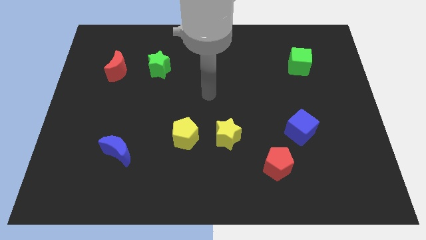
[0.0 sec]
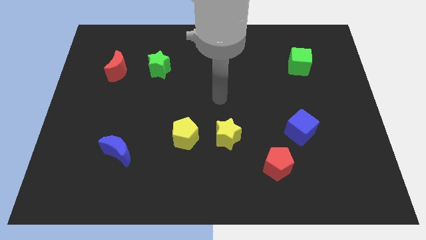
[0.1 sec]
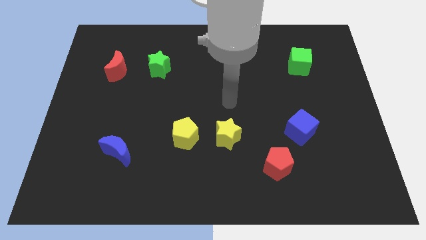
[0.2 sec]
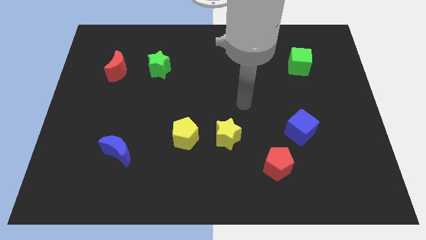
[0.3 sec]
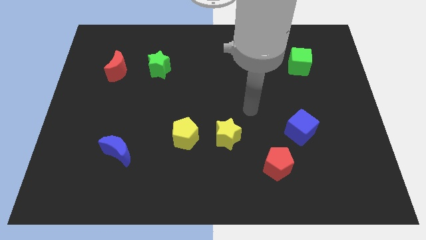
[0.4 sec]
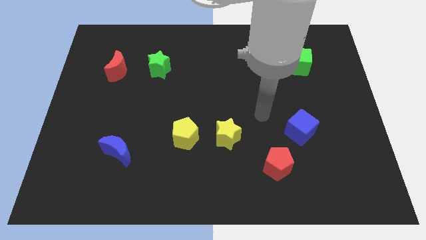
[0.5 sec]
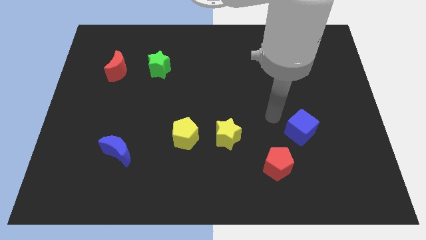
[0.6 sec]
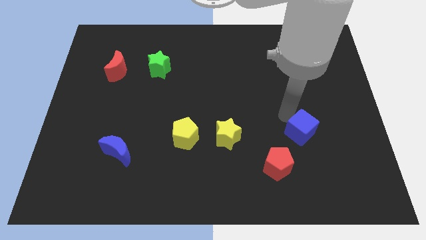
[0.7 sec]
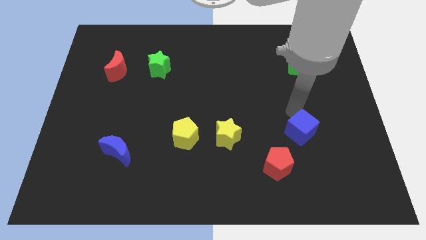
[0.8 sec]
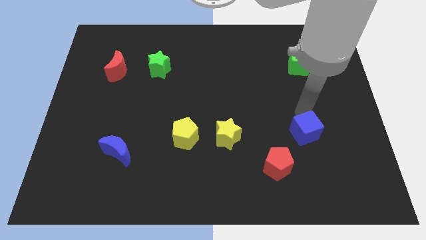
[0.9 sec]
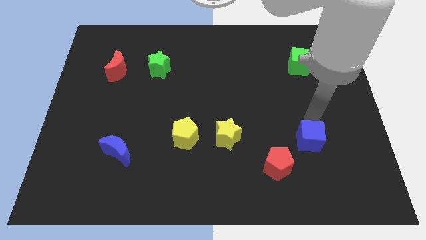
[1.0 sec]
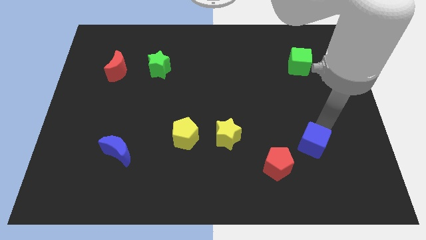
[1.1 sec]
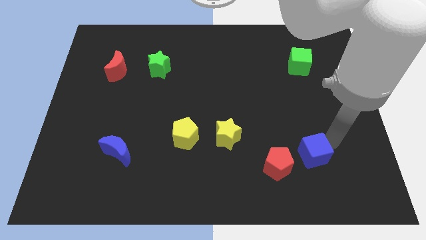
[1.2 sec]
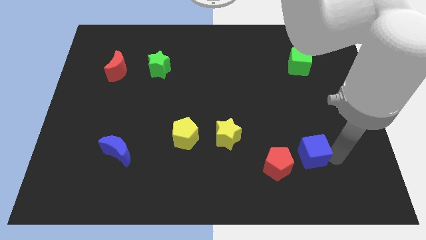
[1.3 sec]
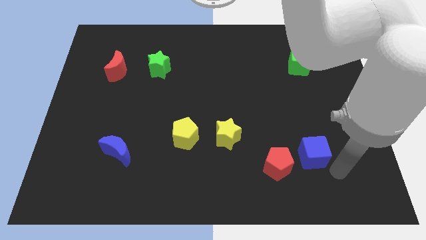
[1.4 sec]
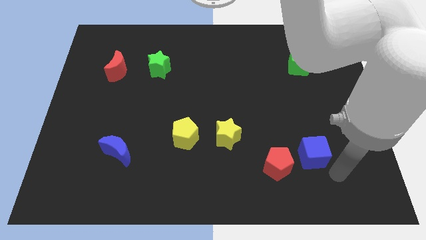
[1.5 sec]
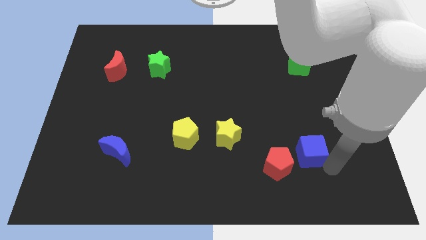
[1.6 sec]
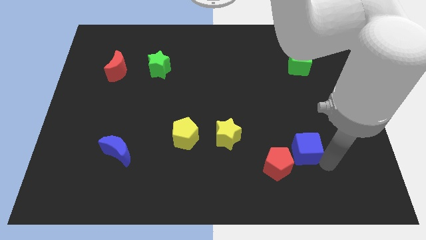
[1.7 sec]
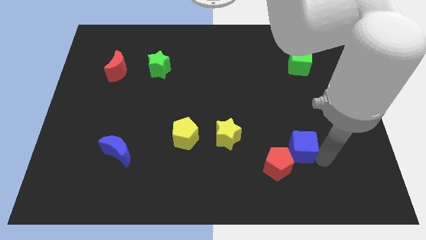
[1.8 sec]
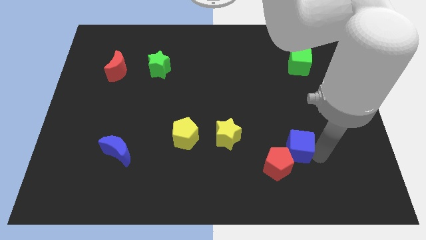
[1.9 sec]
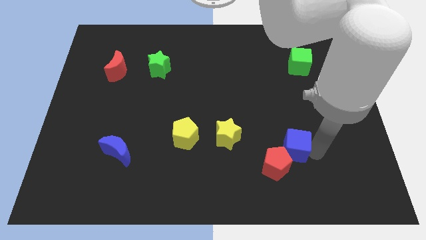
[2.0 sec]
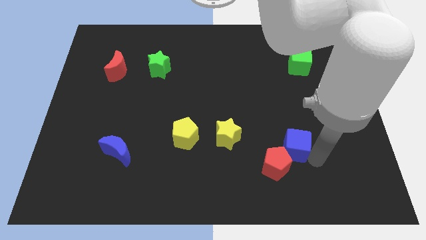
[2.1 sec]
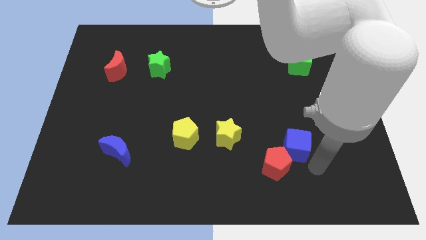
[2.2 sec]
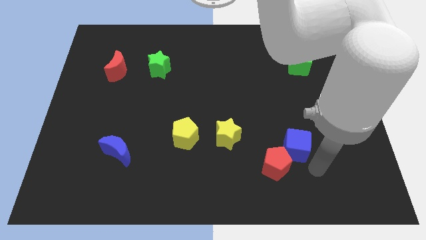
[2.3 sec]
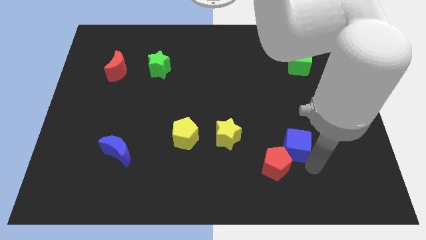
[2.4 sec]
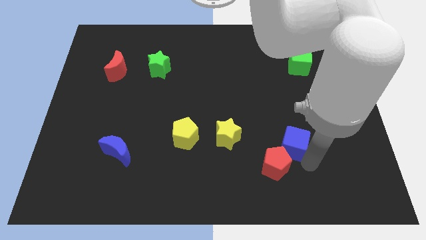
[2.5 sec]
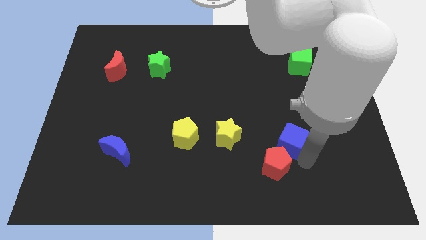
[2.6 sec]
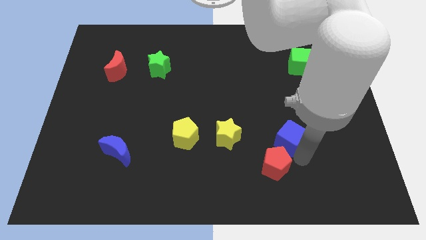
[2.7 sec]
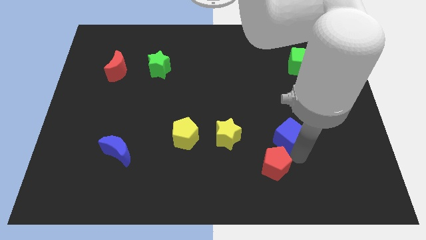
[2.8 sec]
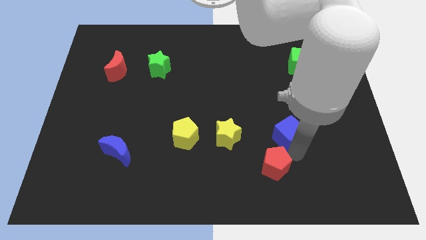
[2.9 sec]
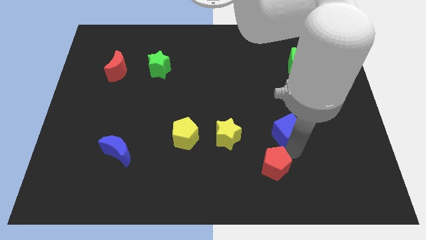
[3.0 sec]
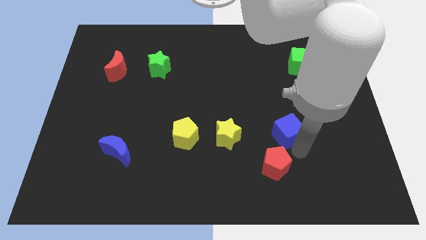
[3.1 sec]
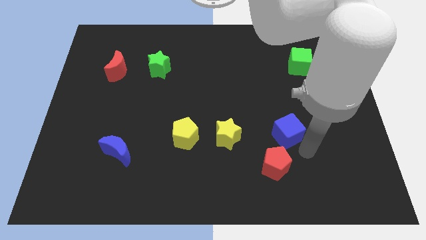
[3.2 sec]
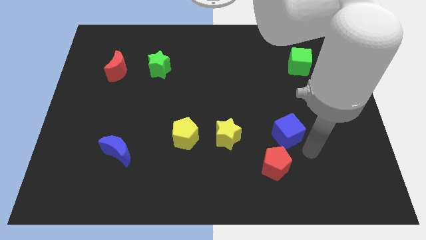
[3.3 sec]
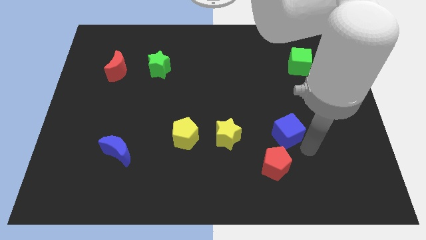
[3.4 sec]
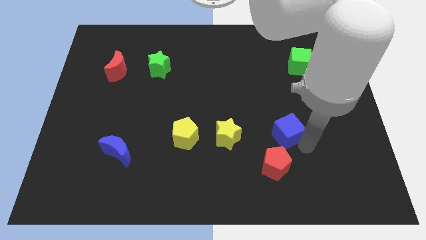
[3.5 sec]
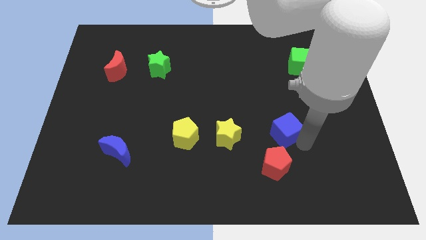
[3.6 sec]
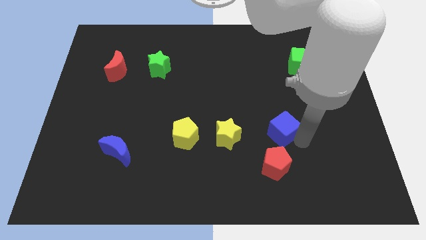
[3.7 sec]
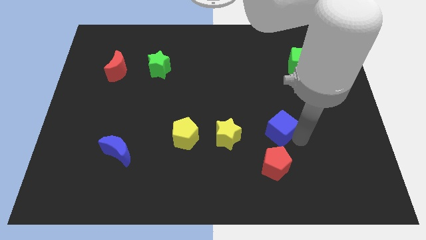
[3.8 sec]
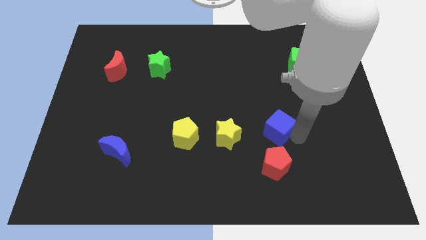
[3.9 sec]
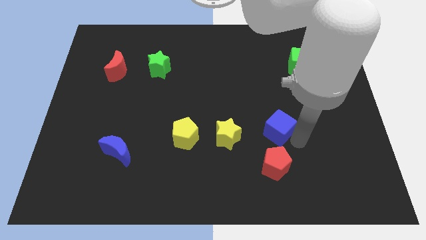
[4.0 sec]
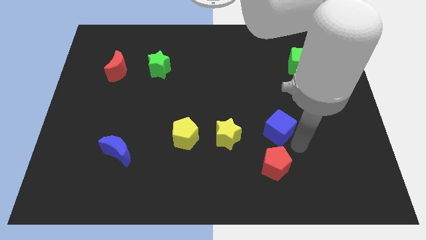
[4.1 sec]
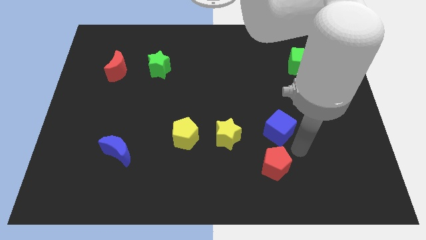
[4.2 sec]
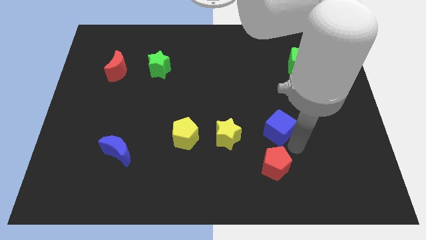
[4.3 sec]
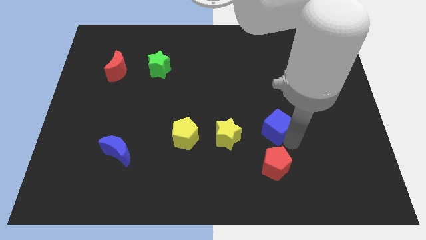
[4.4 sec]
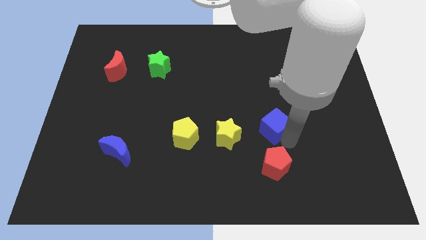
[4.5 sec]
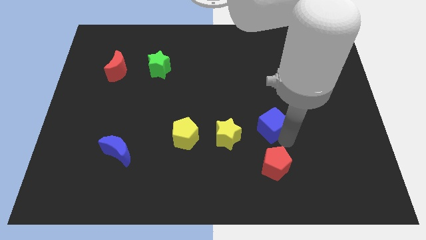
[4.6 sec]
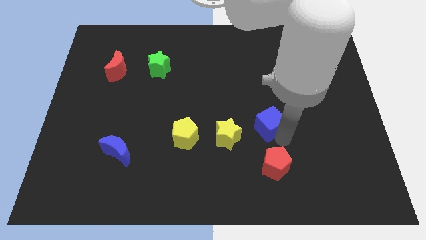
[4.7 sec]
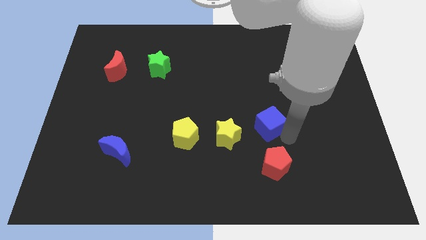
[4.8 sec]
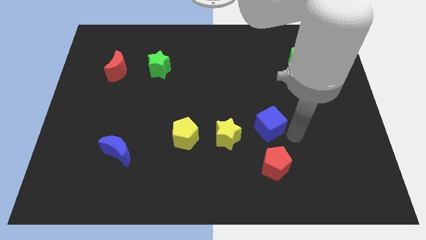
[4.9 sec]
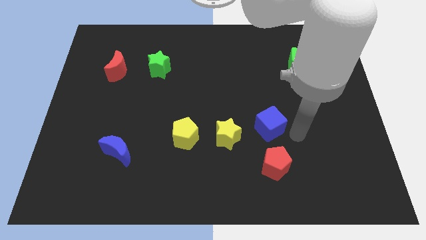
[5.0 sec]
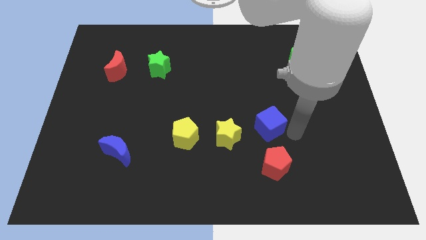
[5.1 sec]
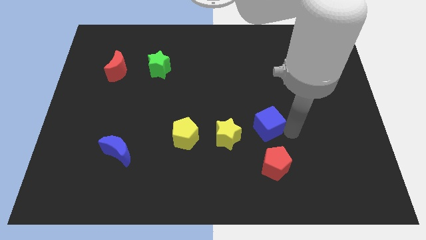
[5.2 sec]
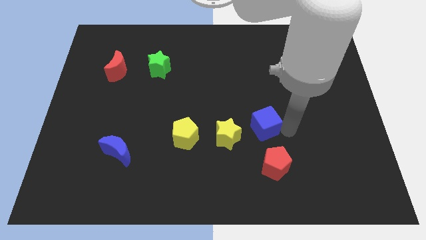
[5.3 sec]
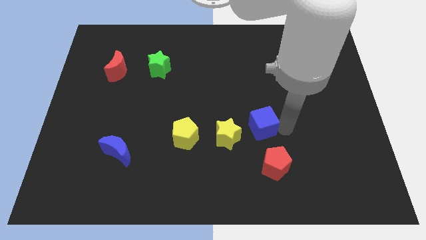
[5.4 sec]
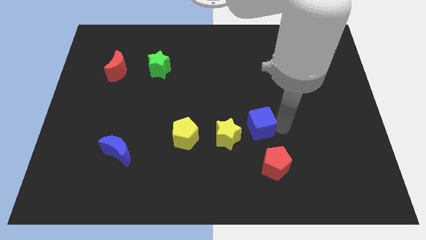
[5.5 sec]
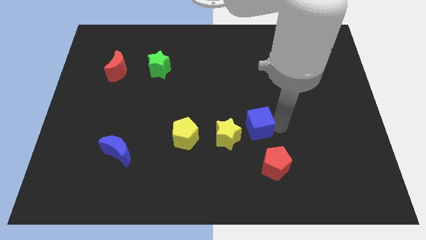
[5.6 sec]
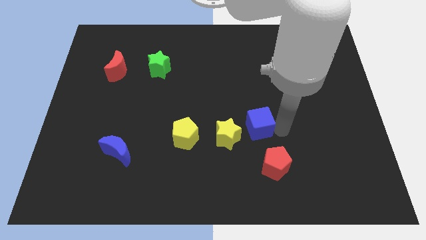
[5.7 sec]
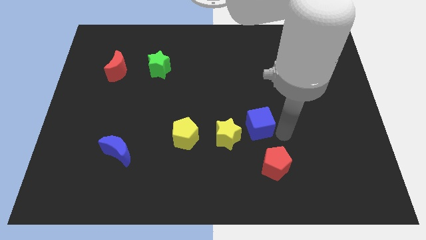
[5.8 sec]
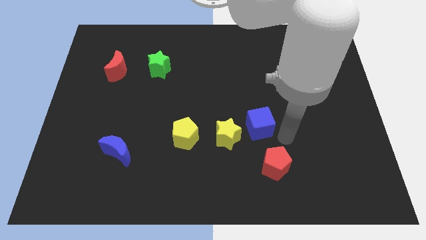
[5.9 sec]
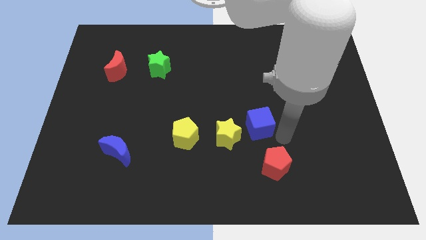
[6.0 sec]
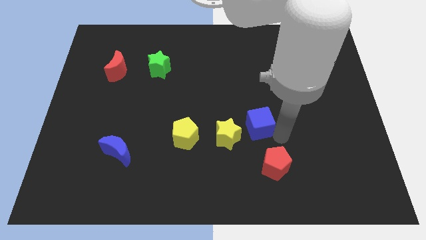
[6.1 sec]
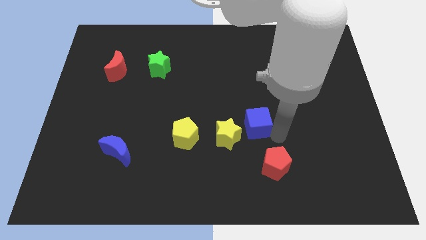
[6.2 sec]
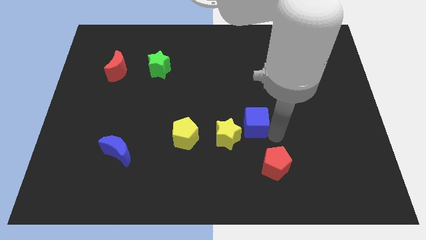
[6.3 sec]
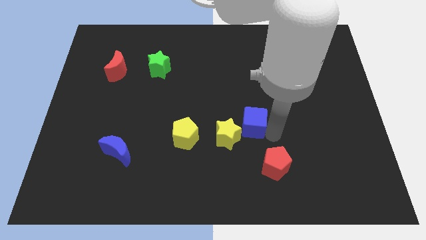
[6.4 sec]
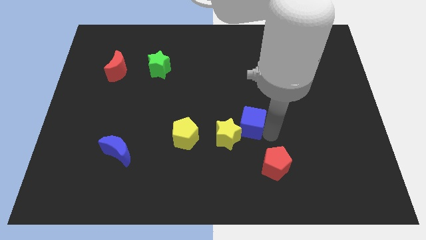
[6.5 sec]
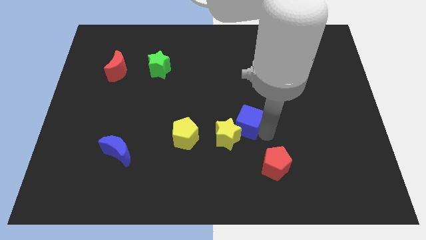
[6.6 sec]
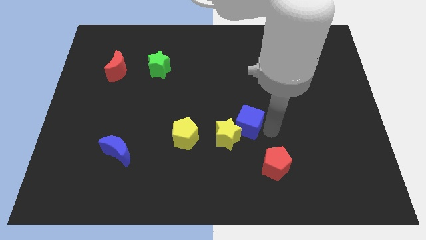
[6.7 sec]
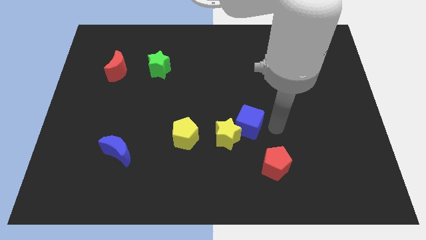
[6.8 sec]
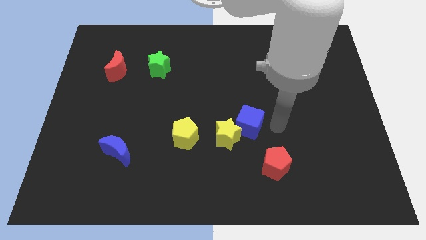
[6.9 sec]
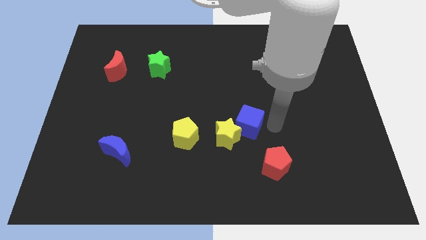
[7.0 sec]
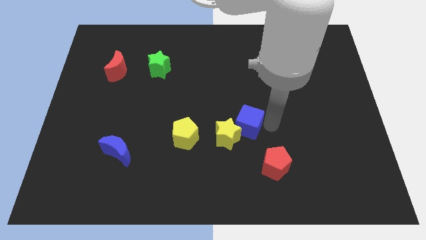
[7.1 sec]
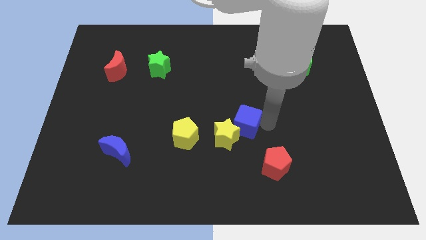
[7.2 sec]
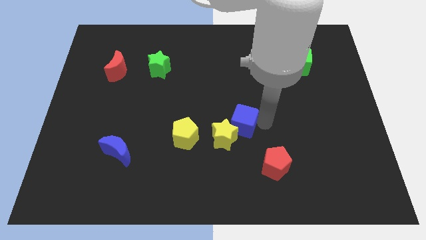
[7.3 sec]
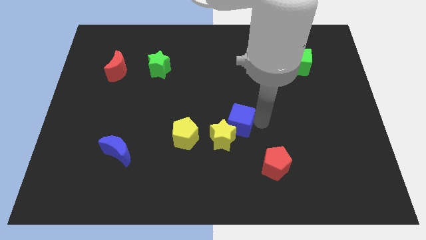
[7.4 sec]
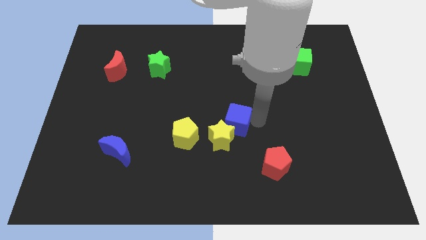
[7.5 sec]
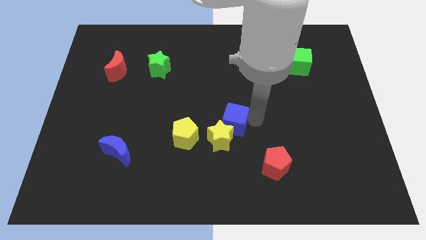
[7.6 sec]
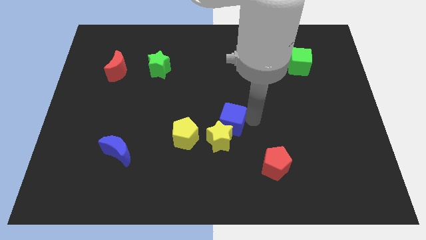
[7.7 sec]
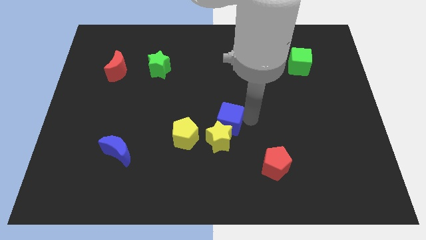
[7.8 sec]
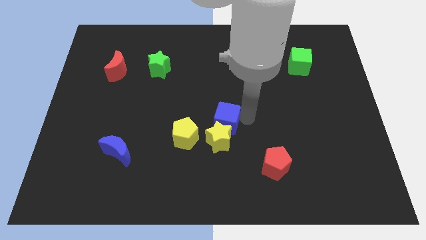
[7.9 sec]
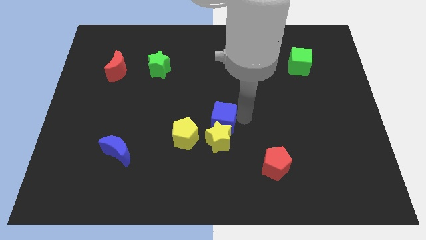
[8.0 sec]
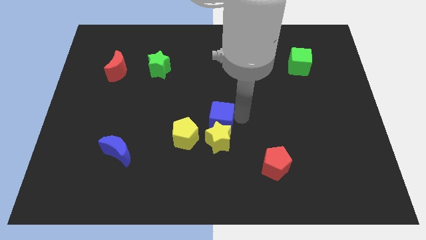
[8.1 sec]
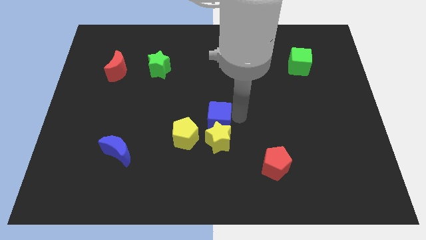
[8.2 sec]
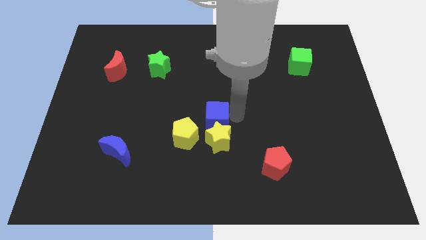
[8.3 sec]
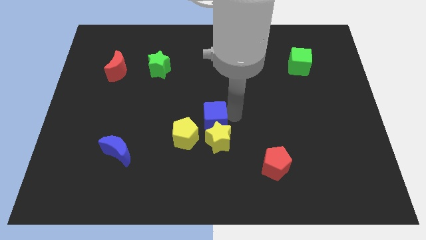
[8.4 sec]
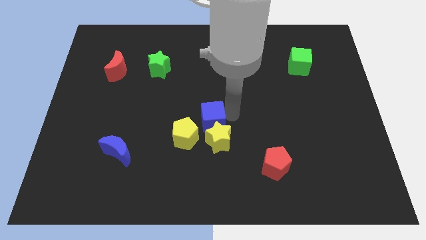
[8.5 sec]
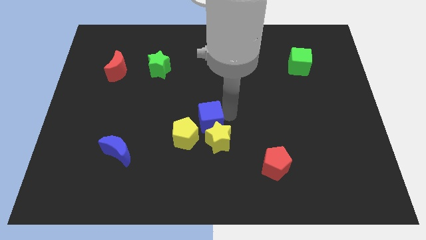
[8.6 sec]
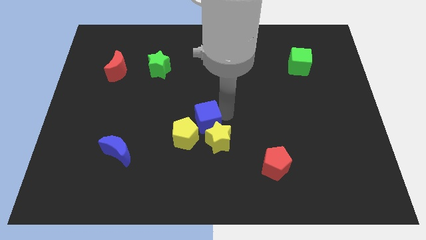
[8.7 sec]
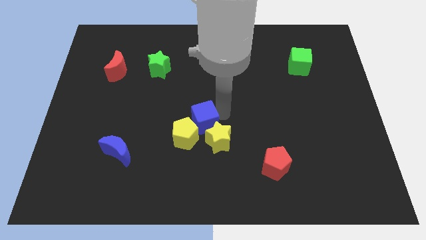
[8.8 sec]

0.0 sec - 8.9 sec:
put the blue cube close to the yellow pentagon
